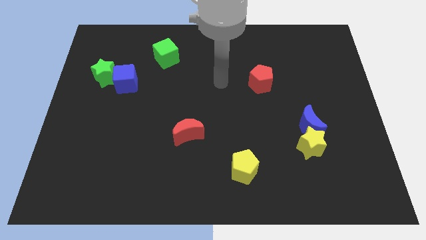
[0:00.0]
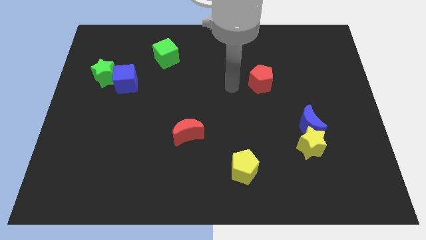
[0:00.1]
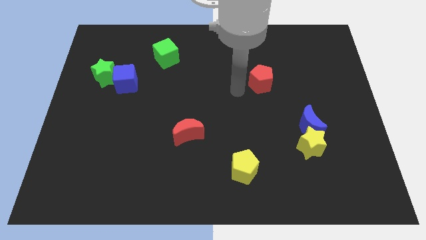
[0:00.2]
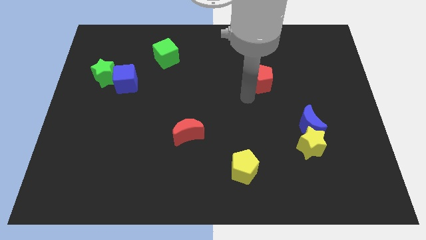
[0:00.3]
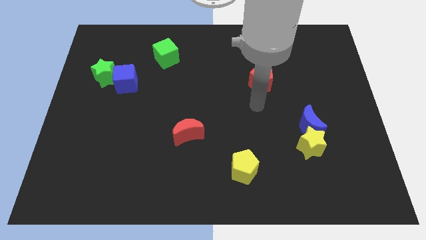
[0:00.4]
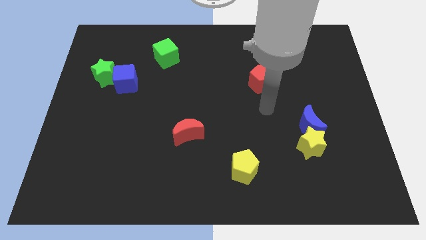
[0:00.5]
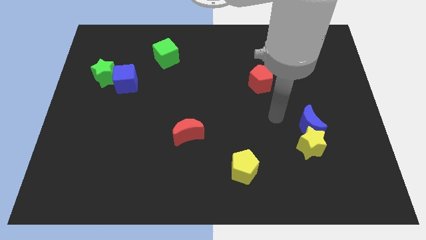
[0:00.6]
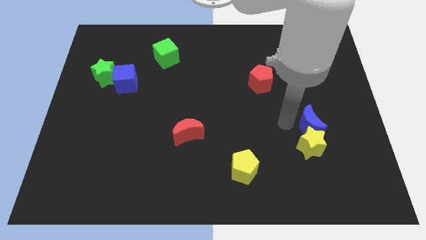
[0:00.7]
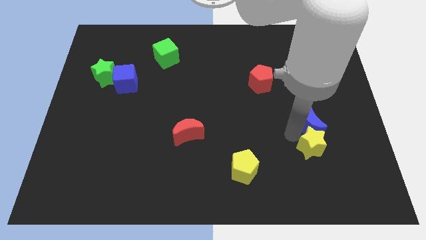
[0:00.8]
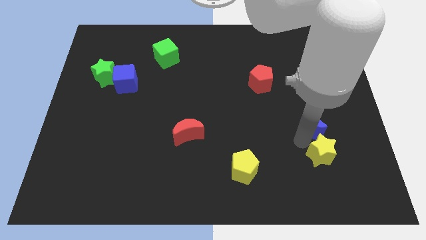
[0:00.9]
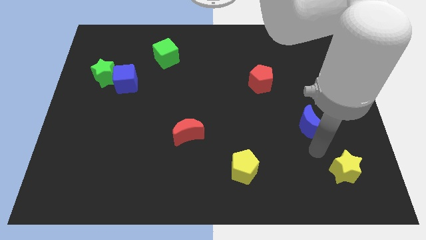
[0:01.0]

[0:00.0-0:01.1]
separate the blue moon from the yellow star

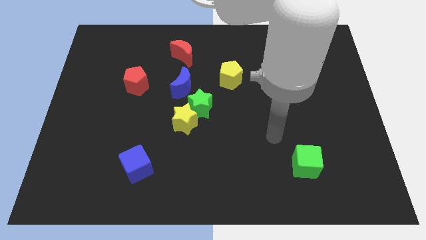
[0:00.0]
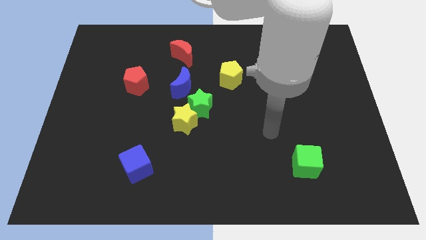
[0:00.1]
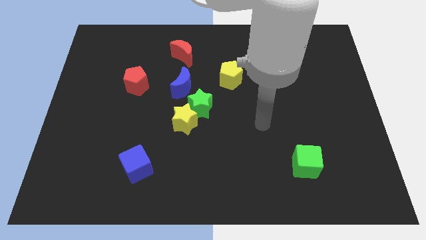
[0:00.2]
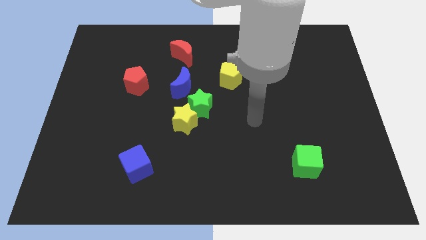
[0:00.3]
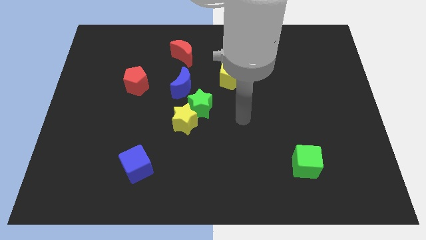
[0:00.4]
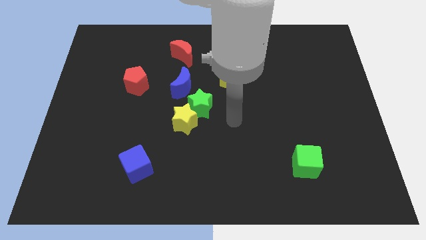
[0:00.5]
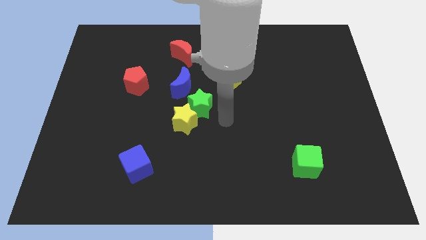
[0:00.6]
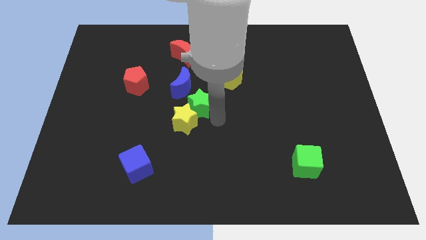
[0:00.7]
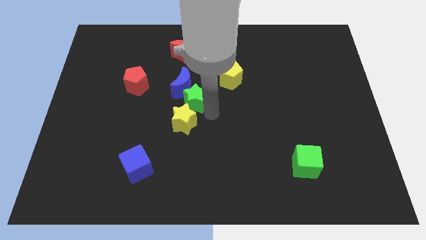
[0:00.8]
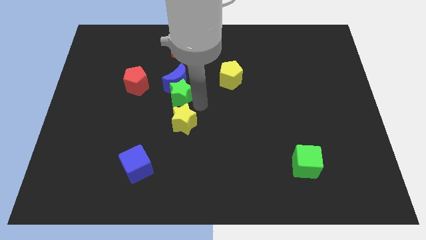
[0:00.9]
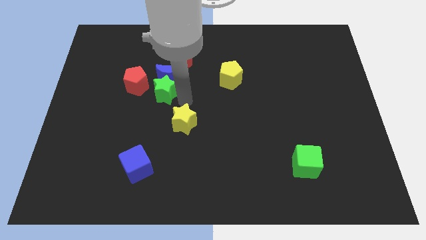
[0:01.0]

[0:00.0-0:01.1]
separate the yellow star from the green star

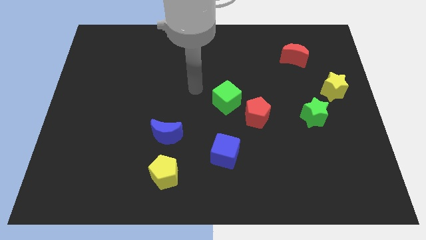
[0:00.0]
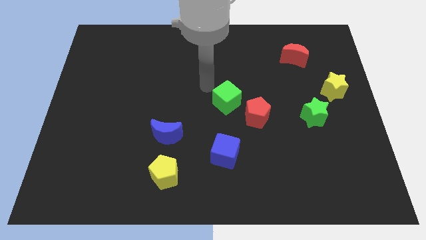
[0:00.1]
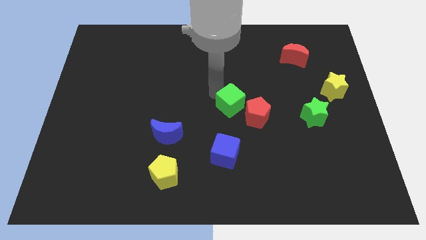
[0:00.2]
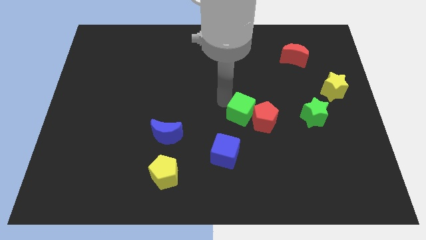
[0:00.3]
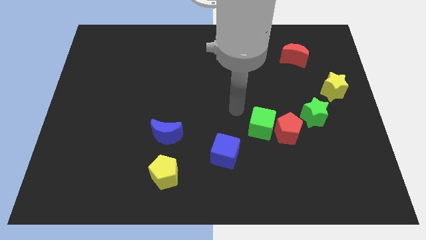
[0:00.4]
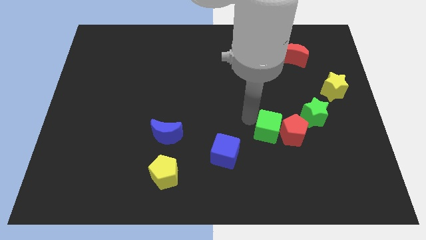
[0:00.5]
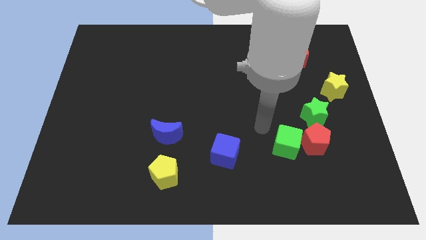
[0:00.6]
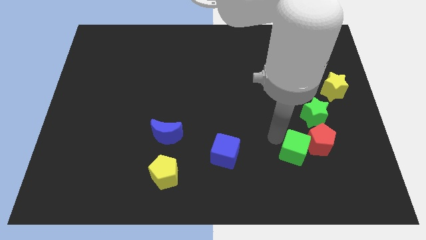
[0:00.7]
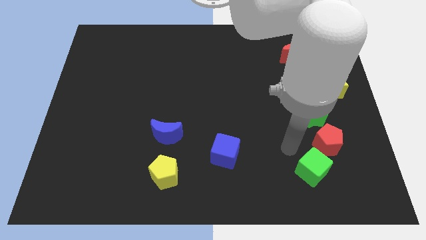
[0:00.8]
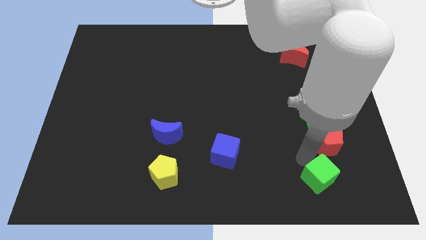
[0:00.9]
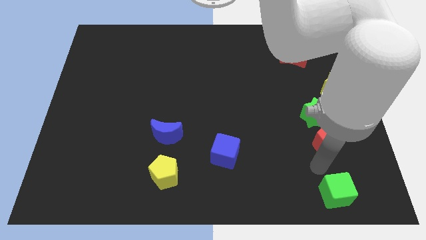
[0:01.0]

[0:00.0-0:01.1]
pull the red pentagon apart from the green cube

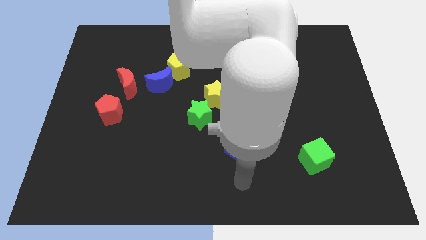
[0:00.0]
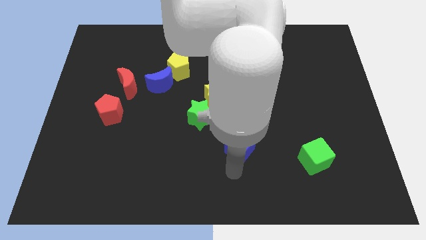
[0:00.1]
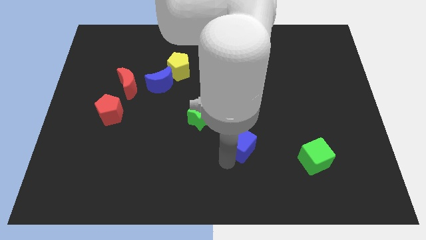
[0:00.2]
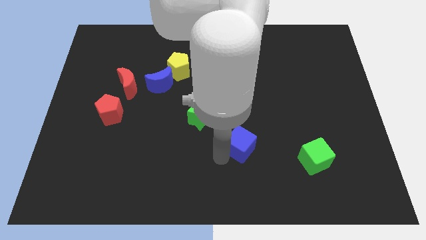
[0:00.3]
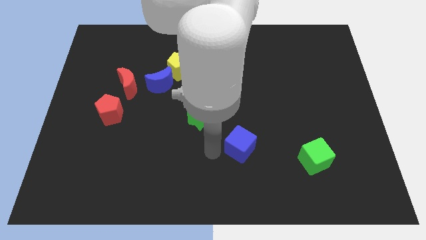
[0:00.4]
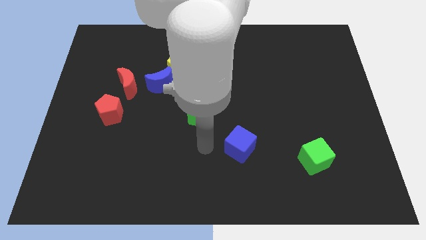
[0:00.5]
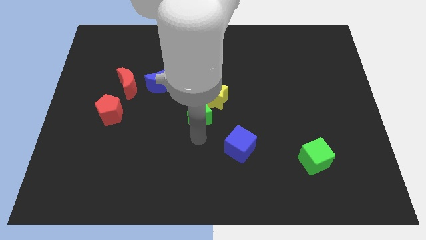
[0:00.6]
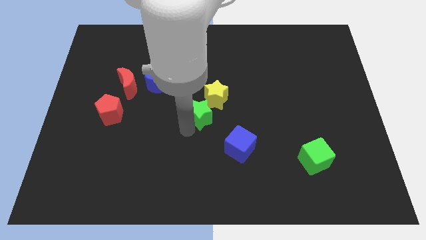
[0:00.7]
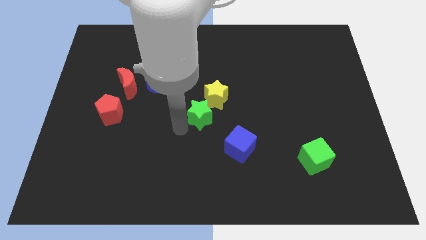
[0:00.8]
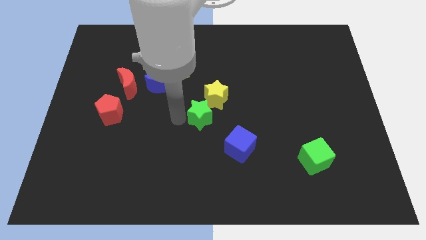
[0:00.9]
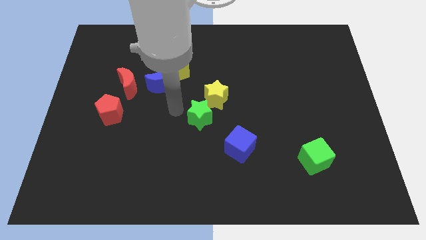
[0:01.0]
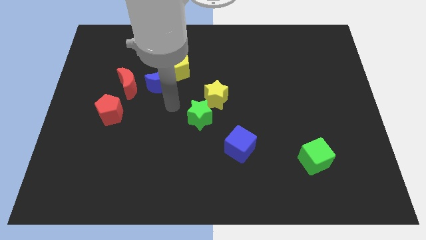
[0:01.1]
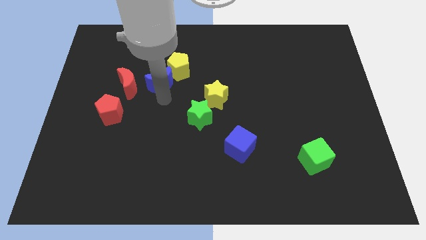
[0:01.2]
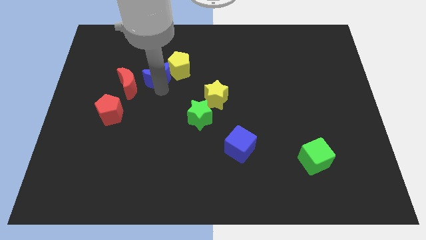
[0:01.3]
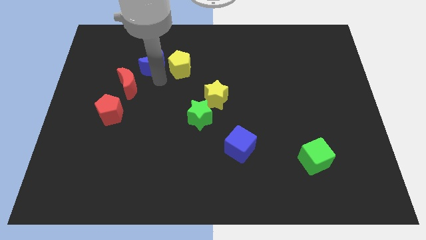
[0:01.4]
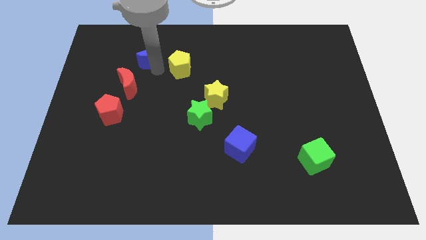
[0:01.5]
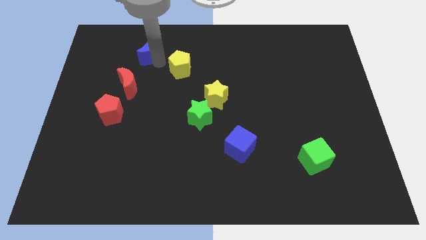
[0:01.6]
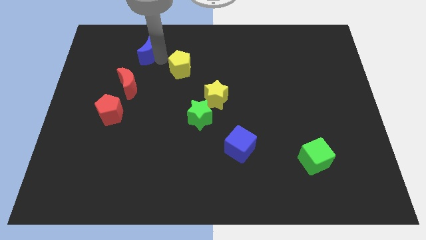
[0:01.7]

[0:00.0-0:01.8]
pull the yellow pentagon apart from the blue moon

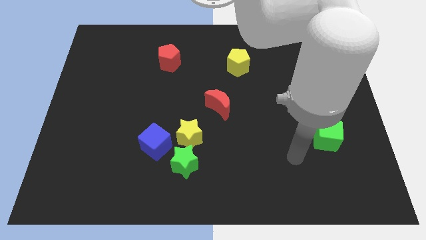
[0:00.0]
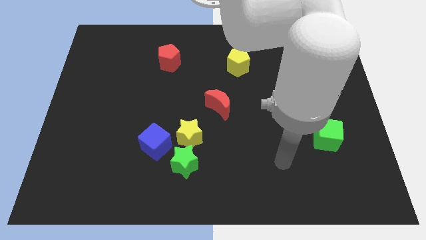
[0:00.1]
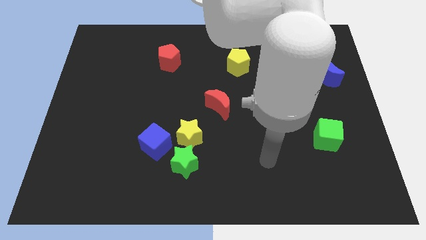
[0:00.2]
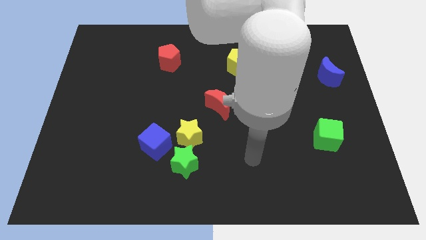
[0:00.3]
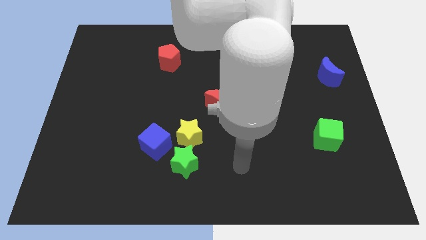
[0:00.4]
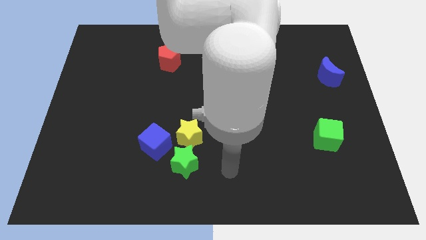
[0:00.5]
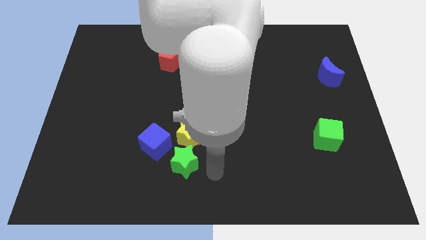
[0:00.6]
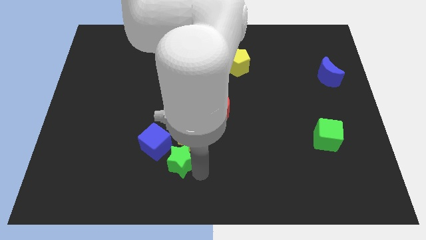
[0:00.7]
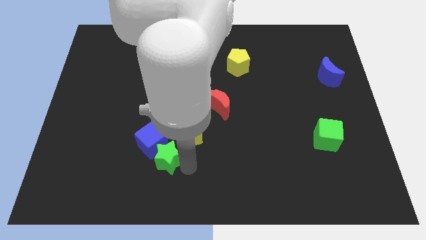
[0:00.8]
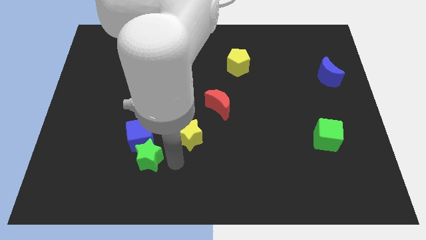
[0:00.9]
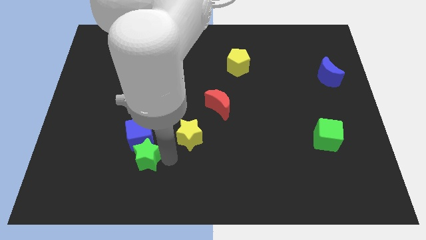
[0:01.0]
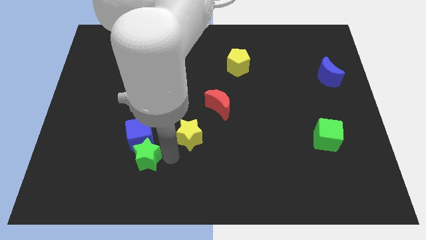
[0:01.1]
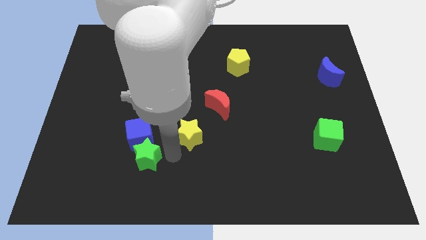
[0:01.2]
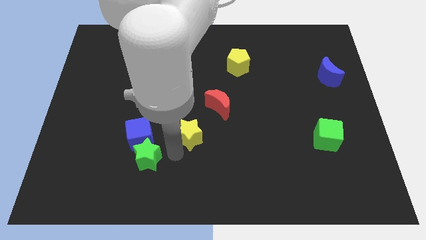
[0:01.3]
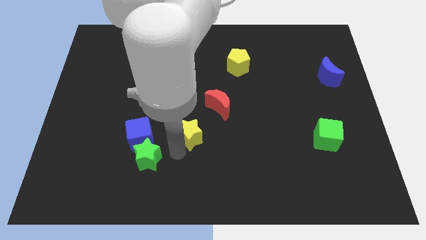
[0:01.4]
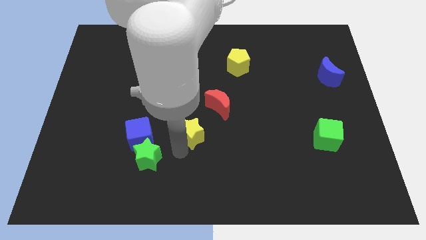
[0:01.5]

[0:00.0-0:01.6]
pull the yellow star apart from the green star and blue cube

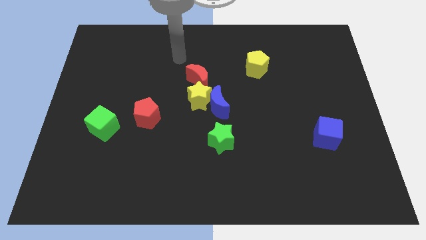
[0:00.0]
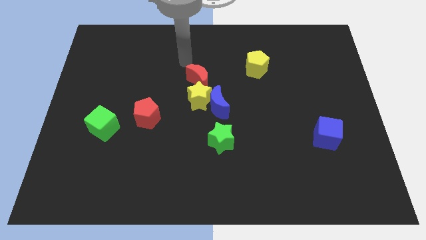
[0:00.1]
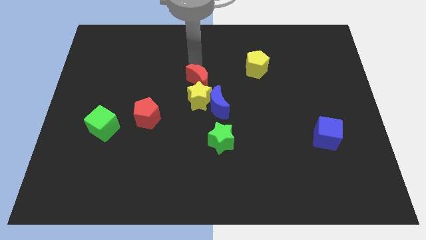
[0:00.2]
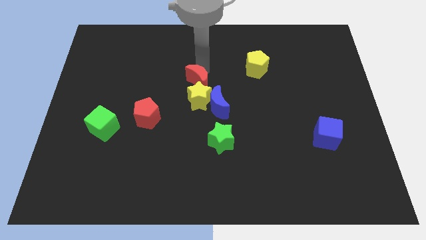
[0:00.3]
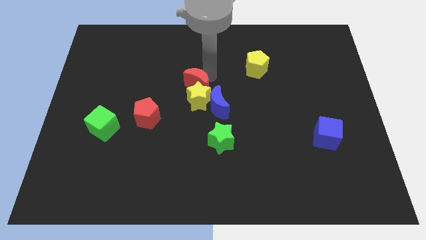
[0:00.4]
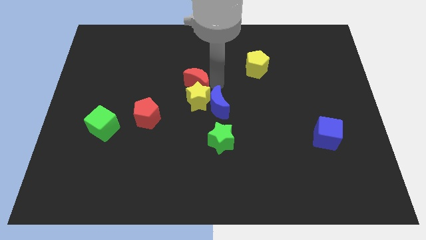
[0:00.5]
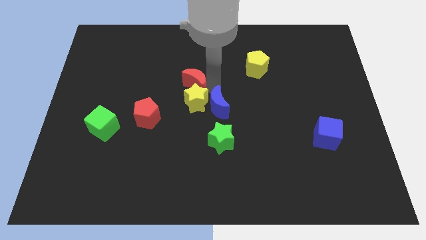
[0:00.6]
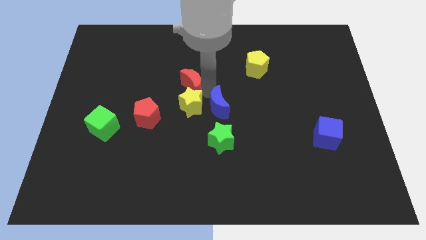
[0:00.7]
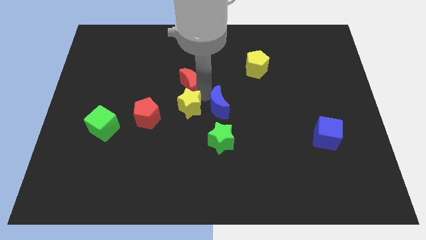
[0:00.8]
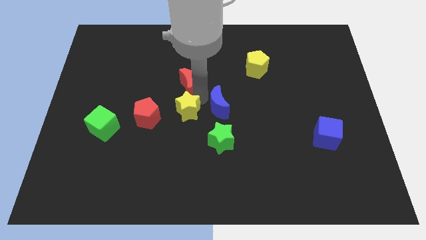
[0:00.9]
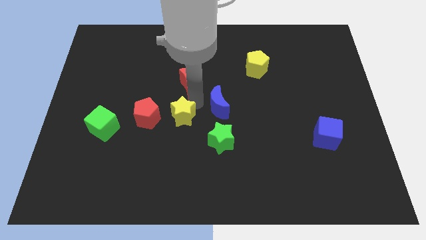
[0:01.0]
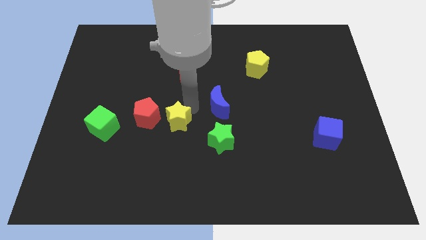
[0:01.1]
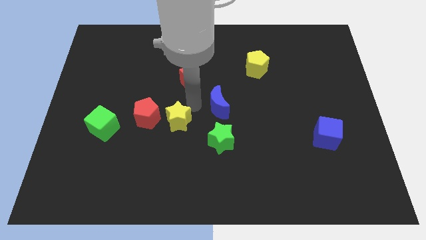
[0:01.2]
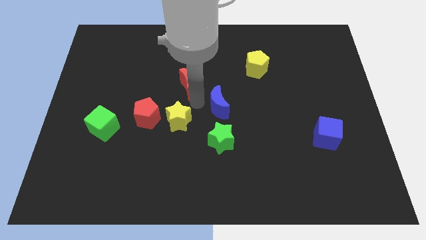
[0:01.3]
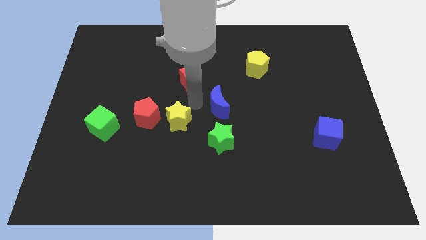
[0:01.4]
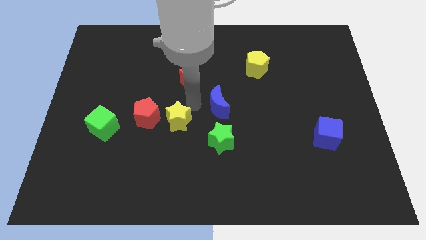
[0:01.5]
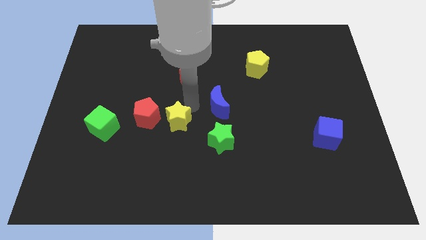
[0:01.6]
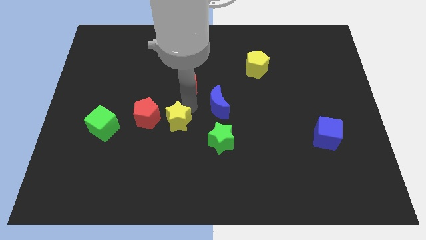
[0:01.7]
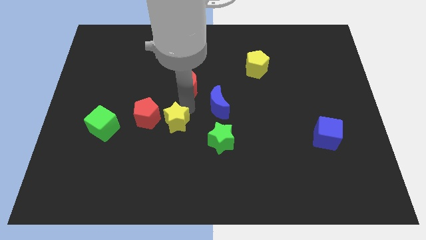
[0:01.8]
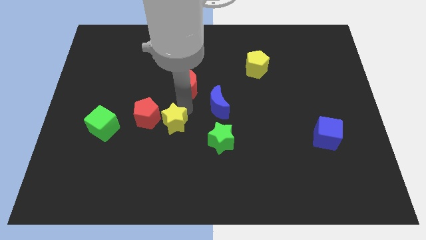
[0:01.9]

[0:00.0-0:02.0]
pull the yellow star apart from the blue moon and red moon

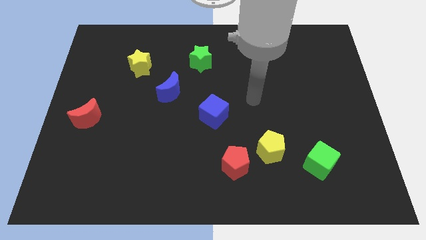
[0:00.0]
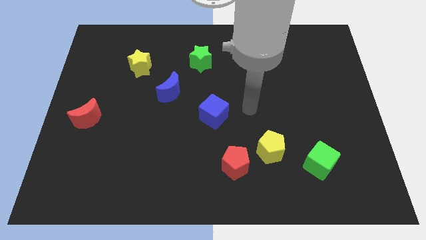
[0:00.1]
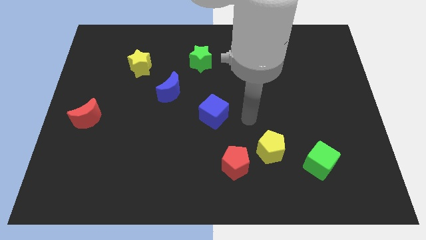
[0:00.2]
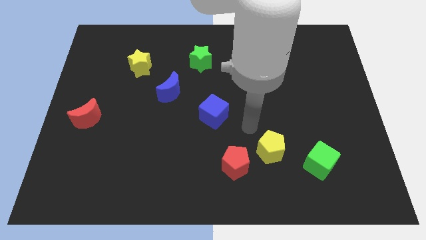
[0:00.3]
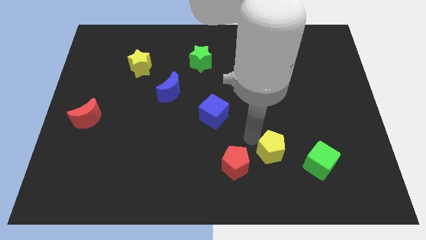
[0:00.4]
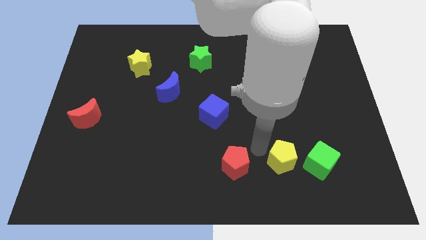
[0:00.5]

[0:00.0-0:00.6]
move the red pentagon away from the yellow pentagon
